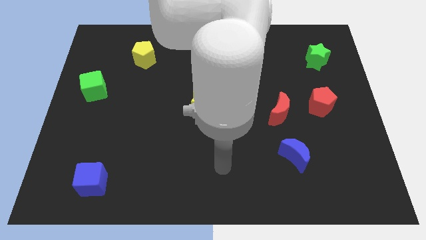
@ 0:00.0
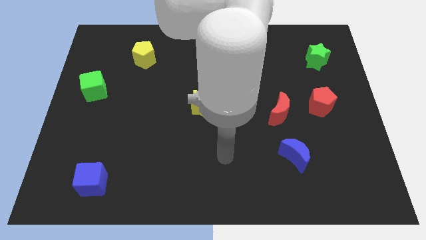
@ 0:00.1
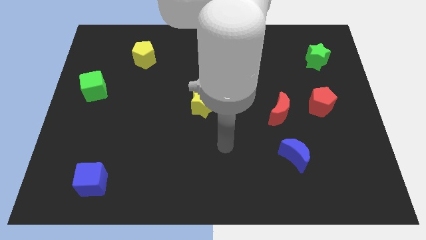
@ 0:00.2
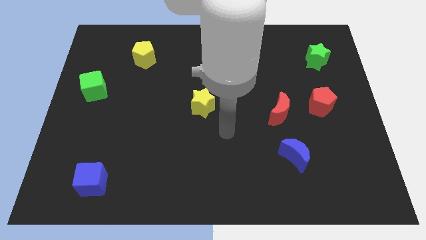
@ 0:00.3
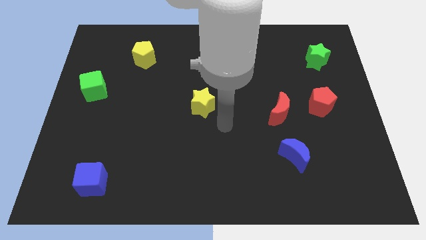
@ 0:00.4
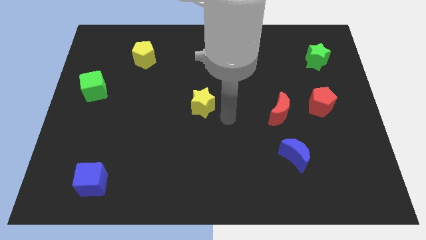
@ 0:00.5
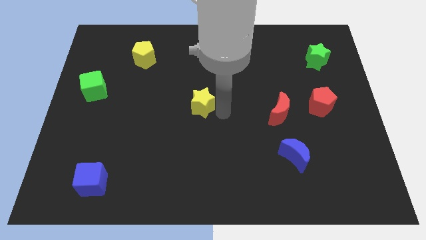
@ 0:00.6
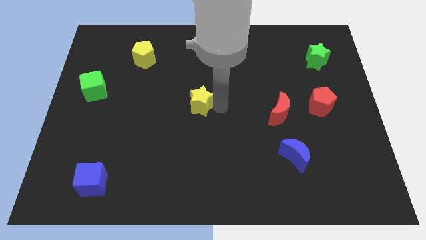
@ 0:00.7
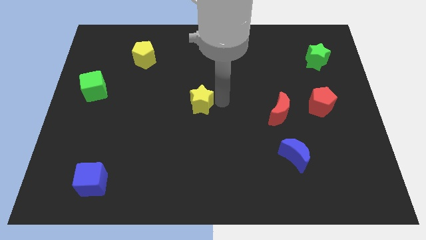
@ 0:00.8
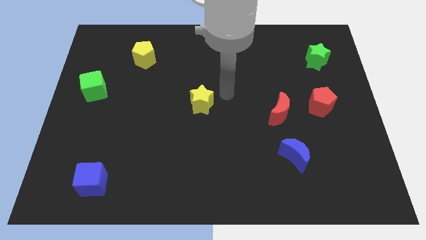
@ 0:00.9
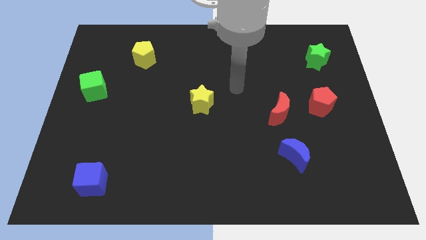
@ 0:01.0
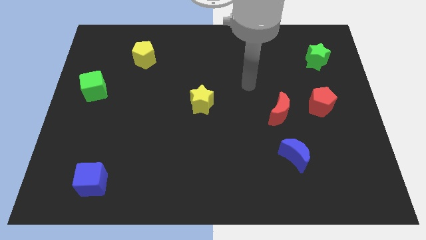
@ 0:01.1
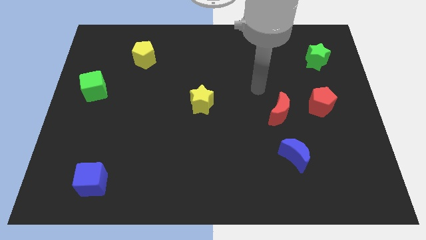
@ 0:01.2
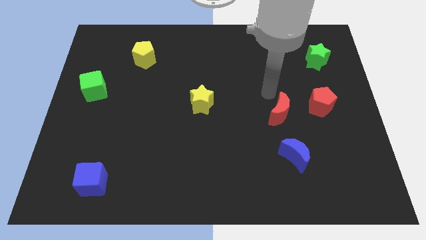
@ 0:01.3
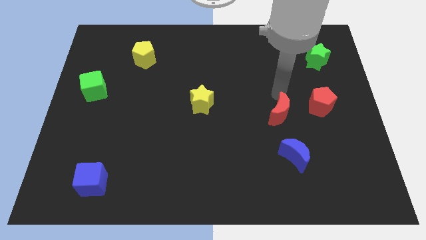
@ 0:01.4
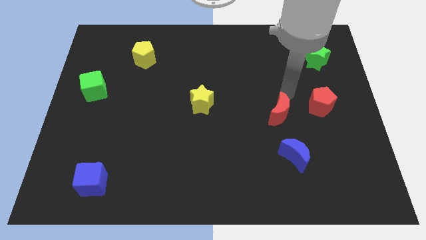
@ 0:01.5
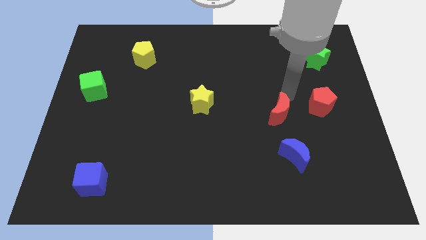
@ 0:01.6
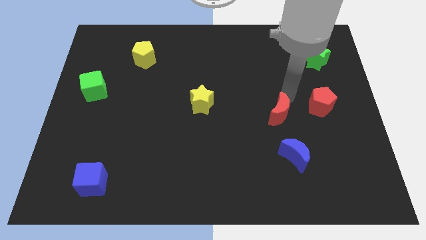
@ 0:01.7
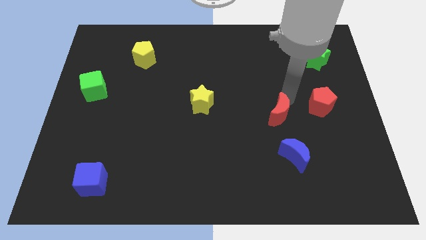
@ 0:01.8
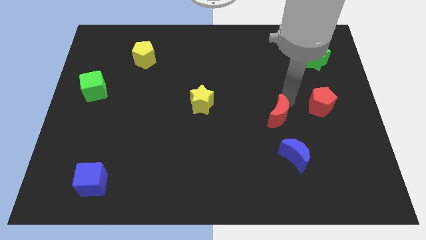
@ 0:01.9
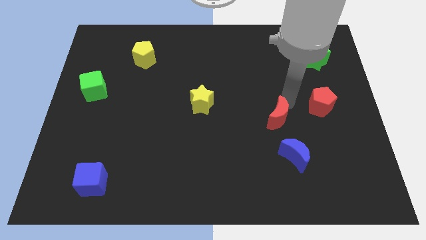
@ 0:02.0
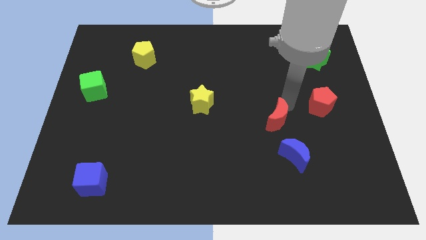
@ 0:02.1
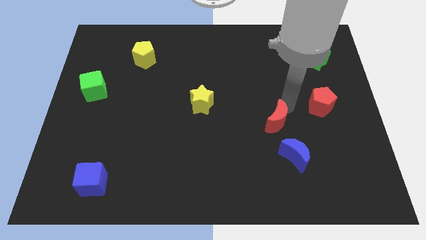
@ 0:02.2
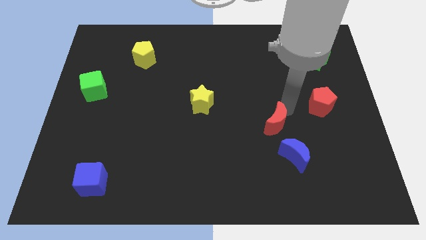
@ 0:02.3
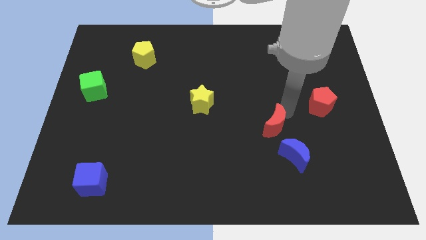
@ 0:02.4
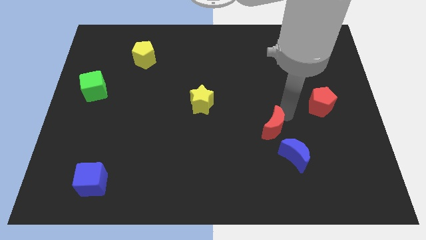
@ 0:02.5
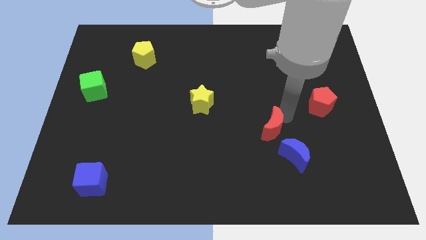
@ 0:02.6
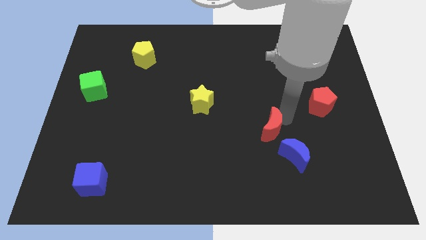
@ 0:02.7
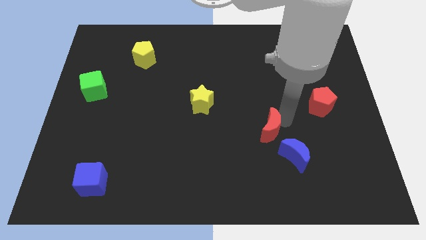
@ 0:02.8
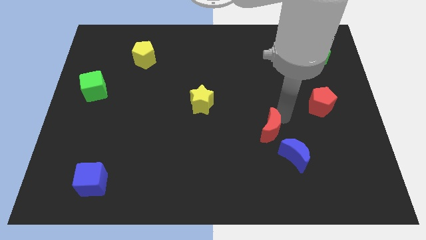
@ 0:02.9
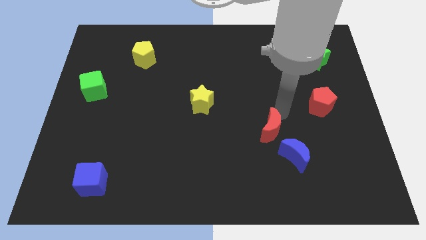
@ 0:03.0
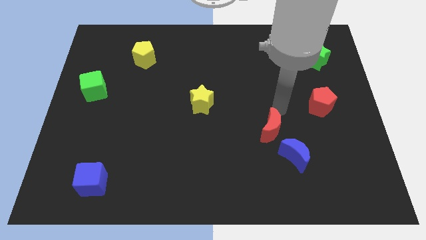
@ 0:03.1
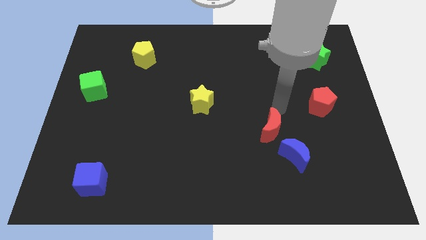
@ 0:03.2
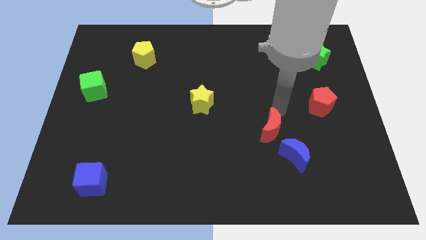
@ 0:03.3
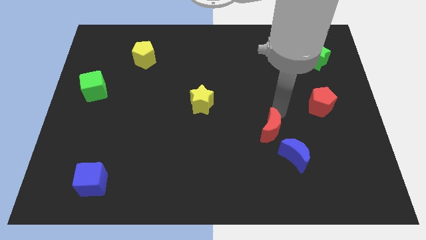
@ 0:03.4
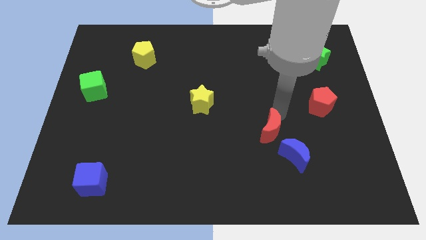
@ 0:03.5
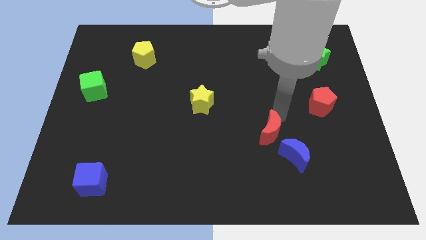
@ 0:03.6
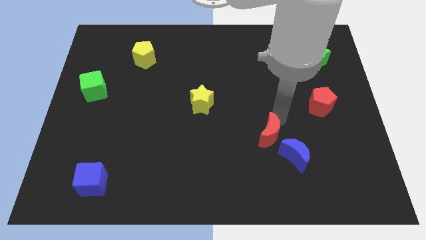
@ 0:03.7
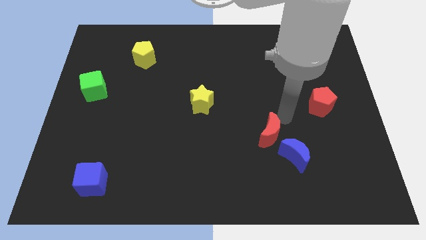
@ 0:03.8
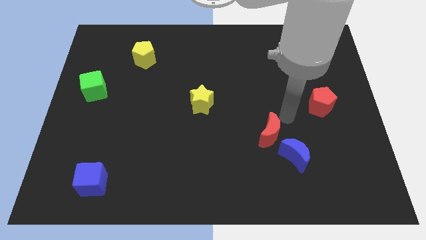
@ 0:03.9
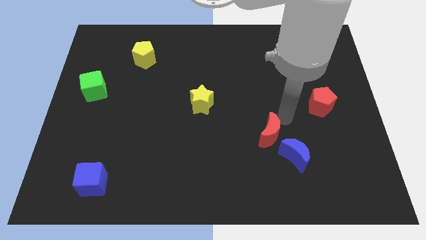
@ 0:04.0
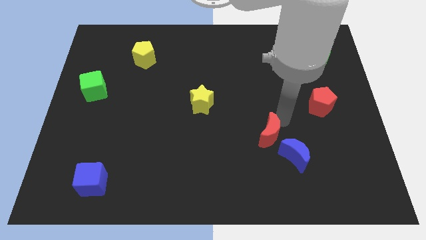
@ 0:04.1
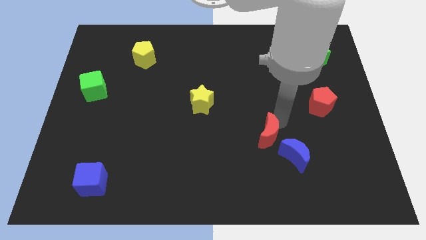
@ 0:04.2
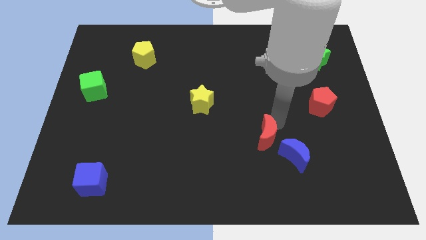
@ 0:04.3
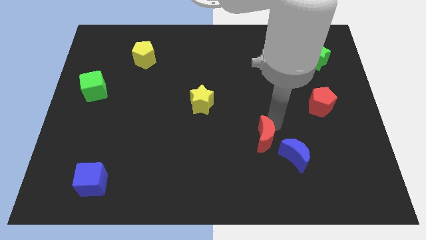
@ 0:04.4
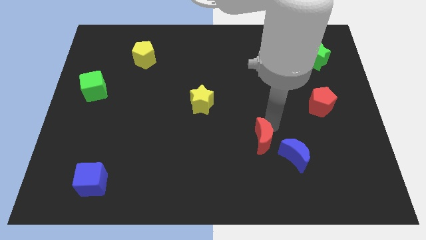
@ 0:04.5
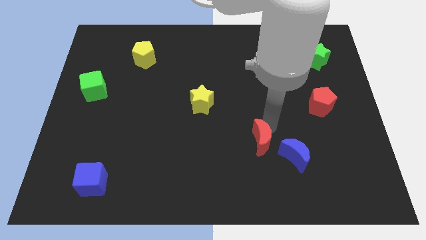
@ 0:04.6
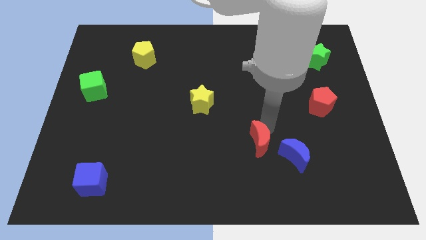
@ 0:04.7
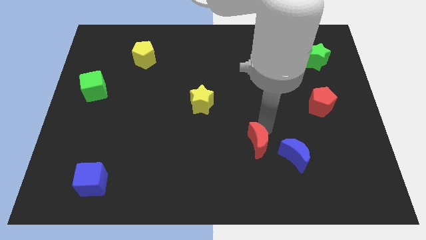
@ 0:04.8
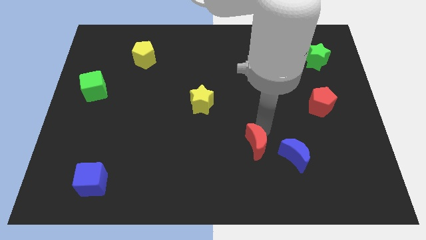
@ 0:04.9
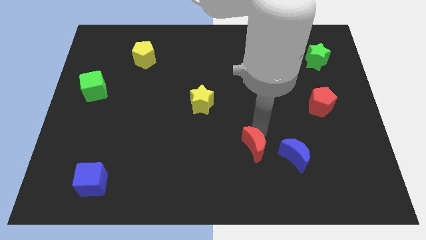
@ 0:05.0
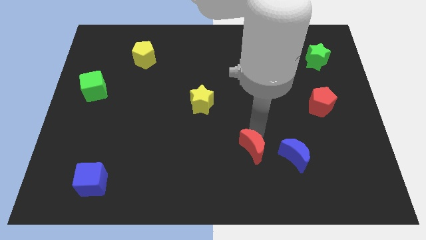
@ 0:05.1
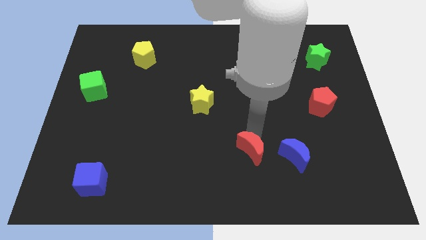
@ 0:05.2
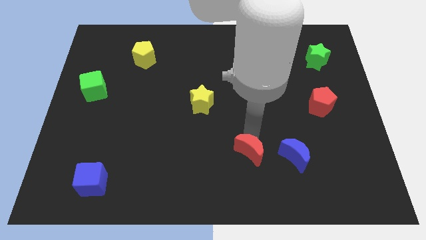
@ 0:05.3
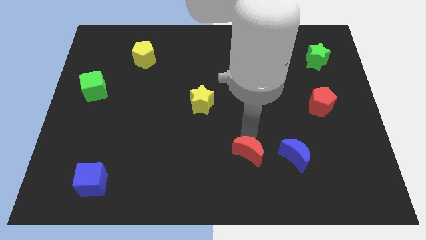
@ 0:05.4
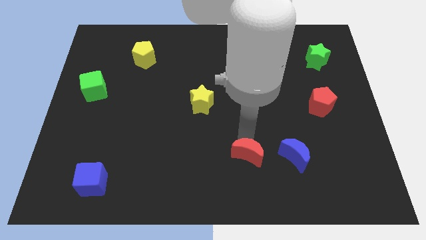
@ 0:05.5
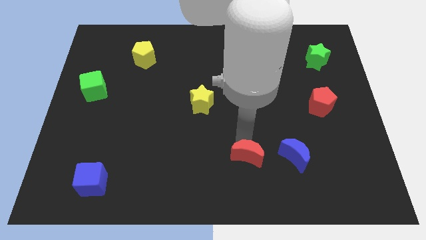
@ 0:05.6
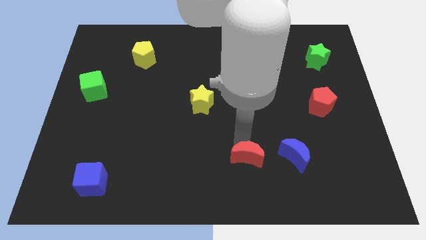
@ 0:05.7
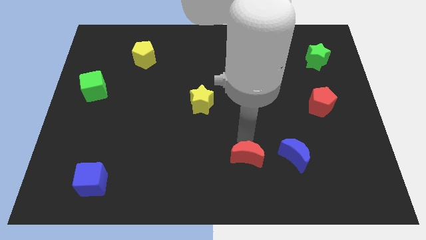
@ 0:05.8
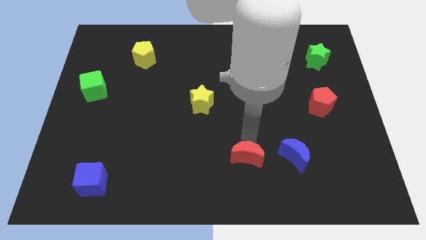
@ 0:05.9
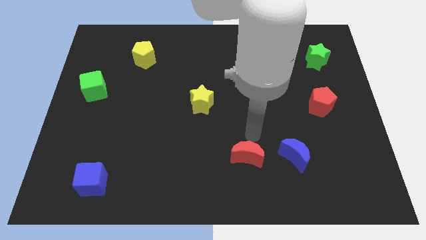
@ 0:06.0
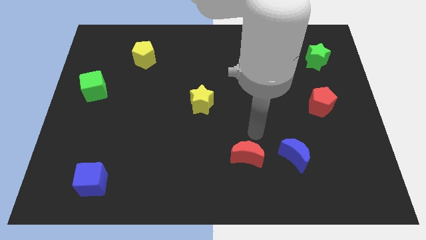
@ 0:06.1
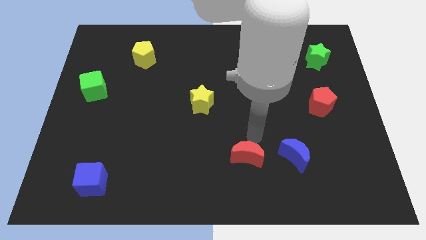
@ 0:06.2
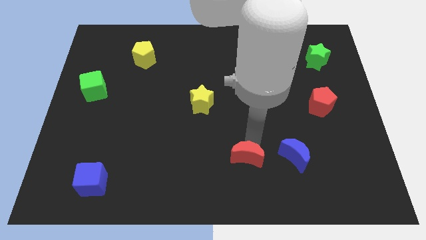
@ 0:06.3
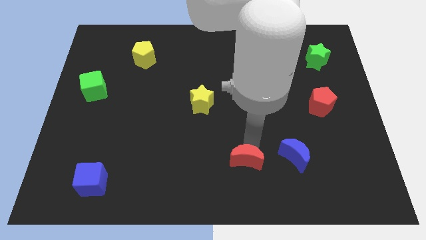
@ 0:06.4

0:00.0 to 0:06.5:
move the red moon to the bottom side

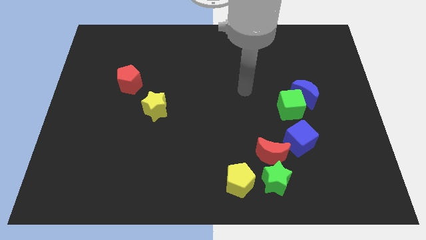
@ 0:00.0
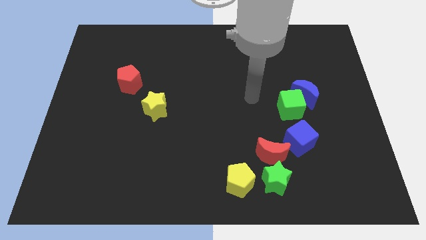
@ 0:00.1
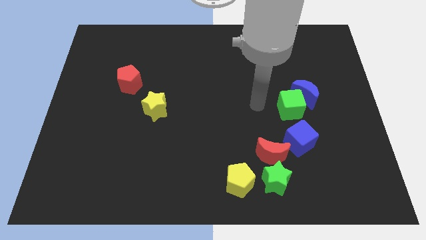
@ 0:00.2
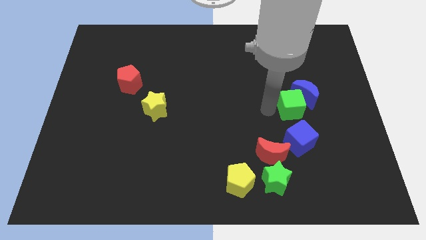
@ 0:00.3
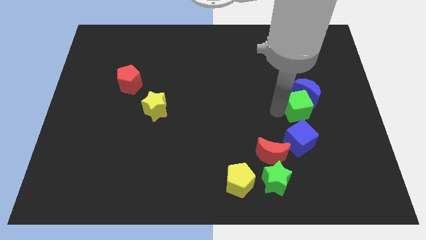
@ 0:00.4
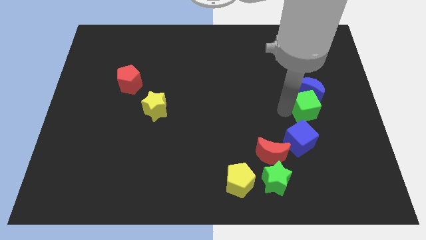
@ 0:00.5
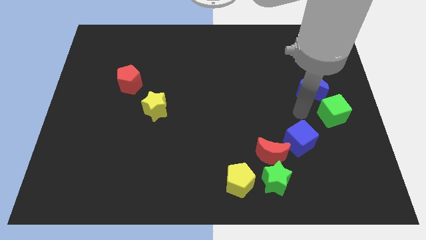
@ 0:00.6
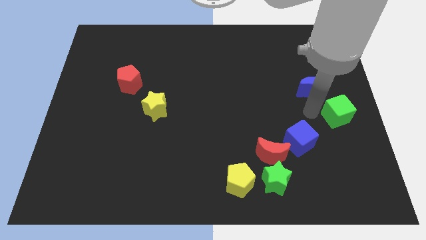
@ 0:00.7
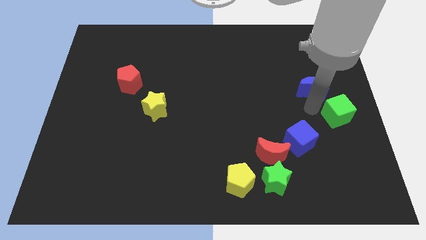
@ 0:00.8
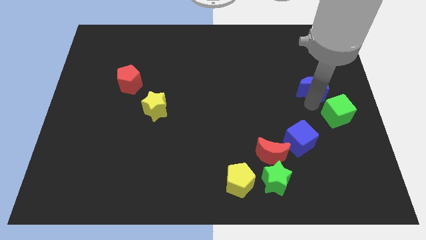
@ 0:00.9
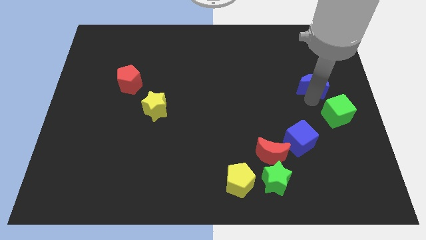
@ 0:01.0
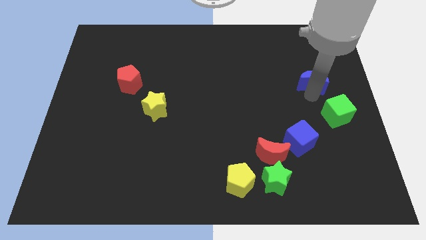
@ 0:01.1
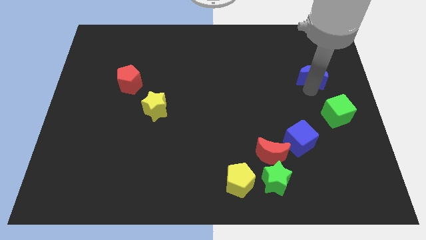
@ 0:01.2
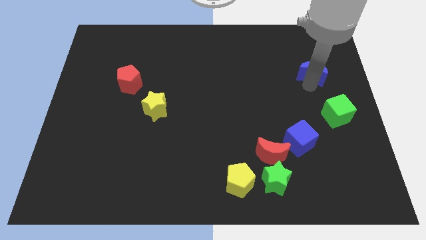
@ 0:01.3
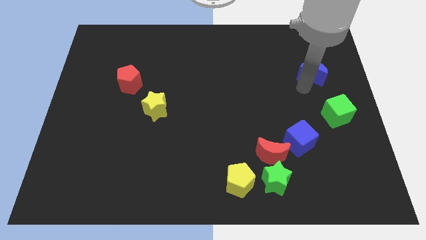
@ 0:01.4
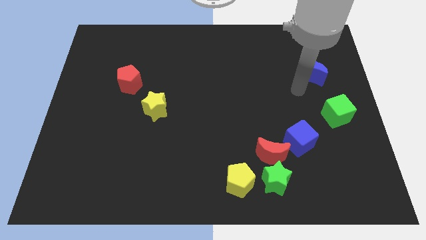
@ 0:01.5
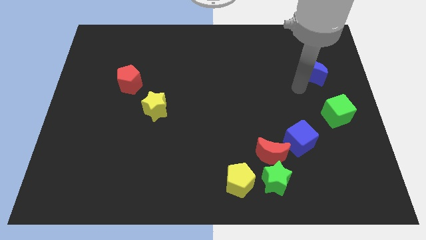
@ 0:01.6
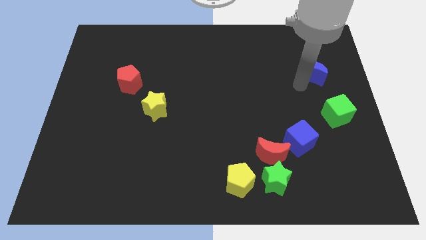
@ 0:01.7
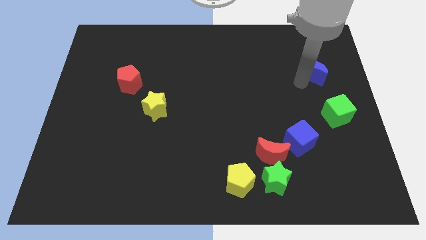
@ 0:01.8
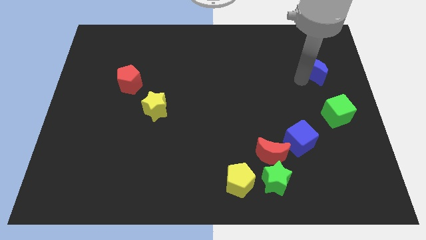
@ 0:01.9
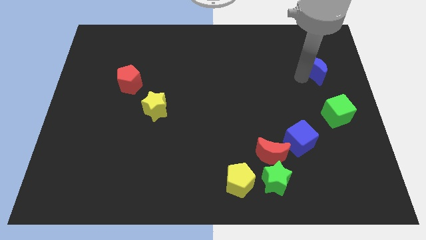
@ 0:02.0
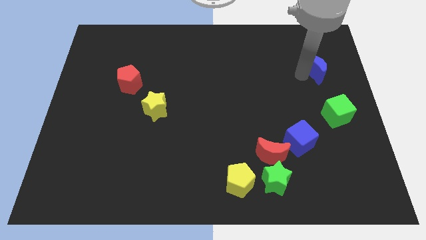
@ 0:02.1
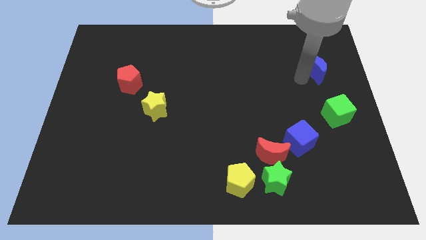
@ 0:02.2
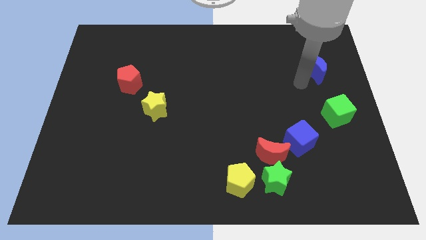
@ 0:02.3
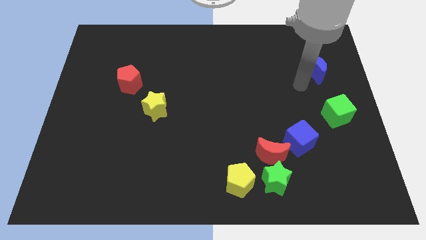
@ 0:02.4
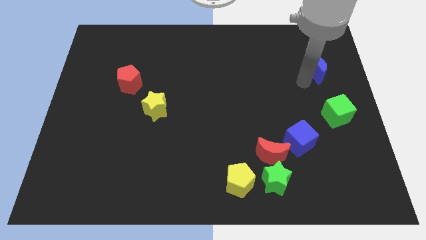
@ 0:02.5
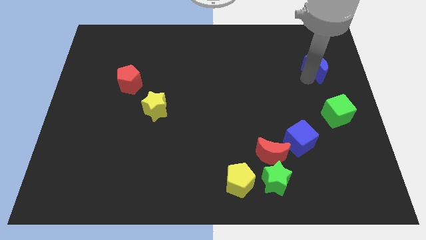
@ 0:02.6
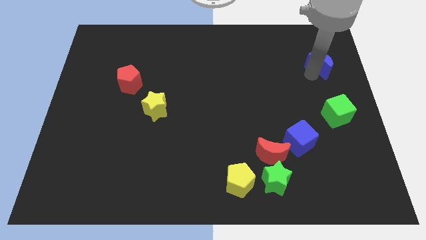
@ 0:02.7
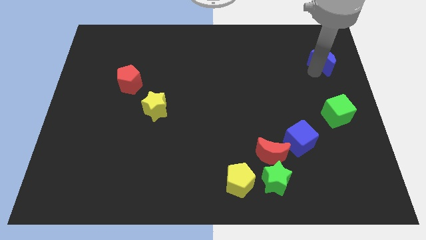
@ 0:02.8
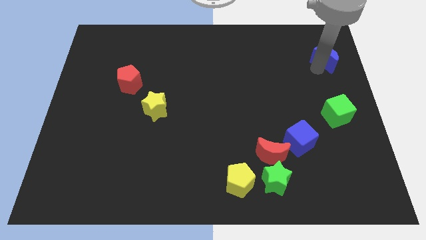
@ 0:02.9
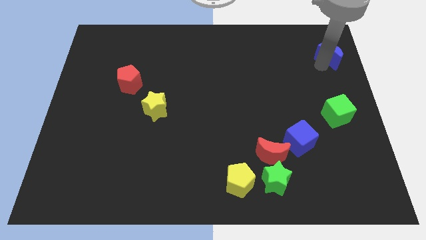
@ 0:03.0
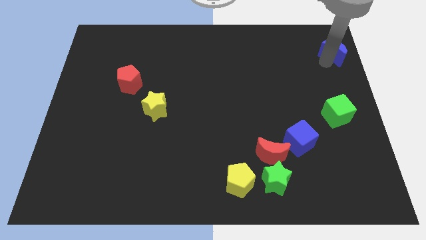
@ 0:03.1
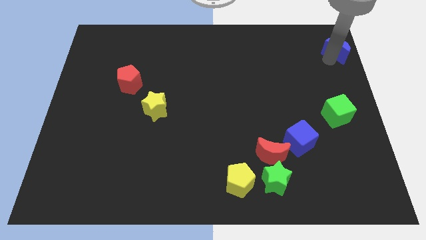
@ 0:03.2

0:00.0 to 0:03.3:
put the blue moon to the top right of the board
